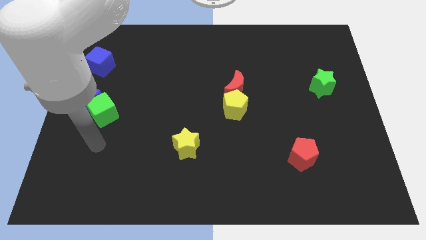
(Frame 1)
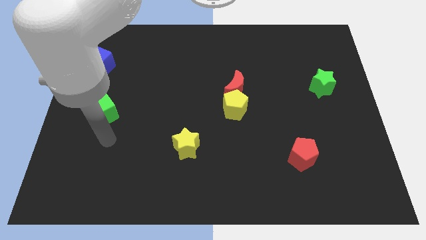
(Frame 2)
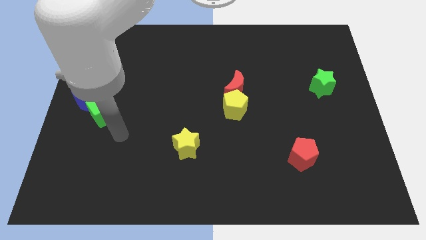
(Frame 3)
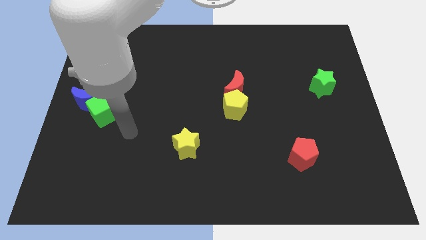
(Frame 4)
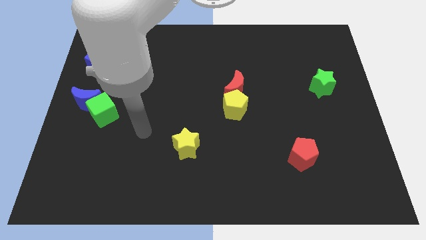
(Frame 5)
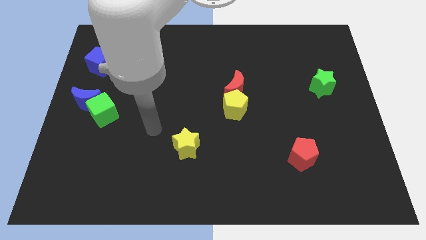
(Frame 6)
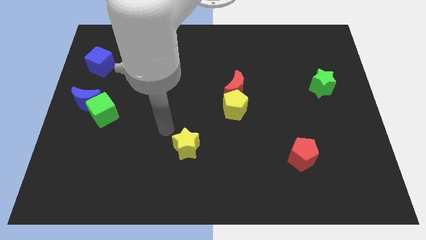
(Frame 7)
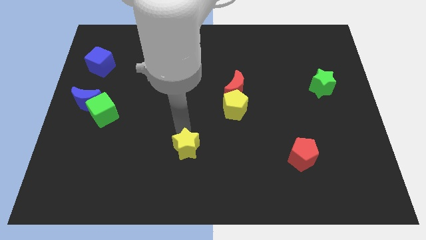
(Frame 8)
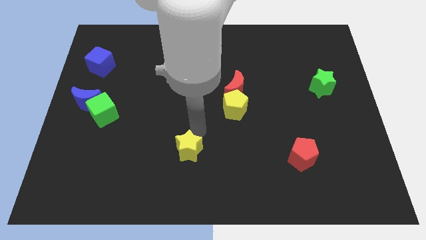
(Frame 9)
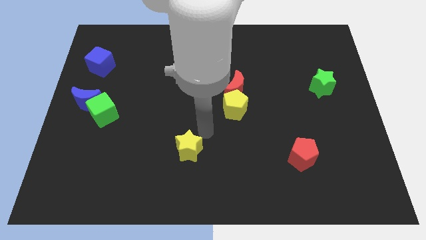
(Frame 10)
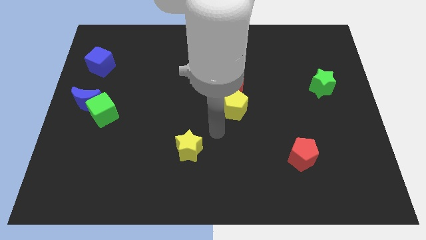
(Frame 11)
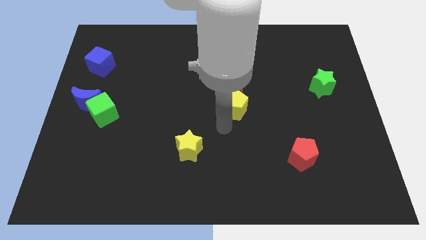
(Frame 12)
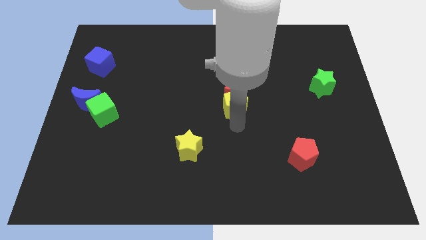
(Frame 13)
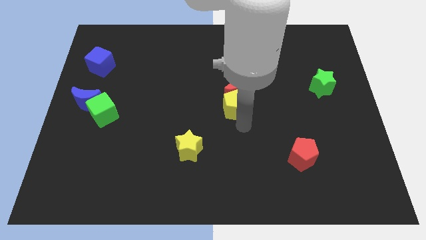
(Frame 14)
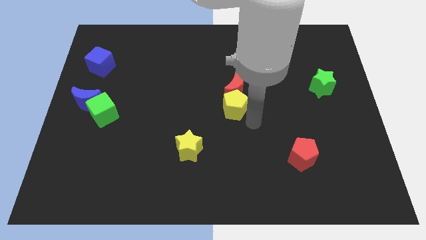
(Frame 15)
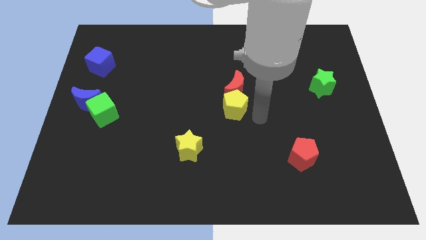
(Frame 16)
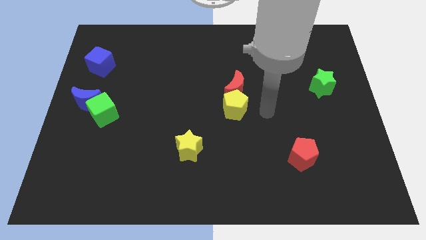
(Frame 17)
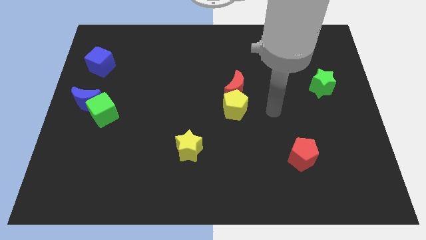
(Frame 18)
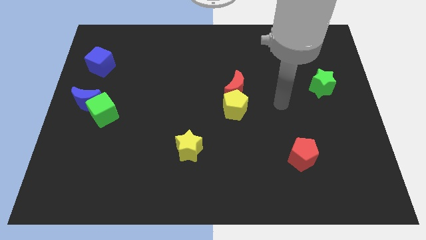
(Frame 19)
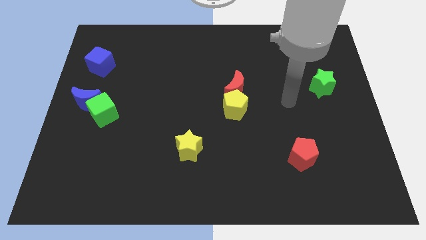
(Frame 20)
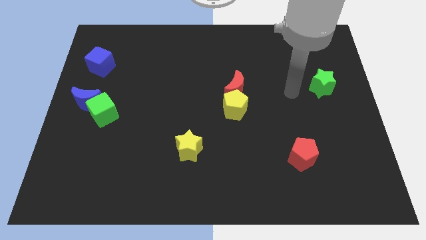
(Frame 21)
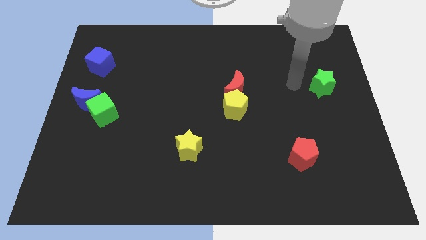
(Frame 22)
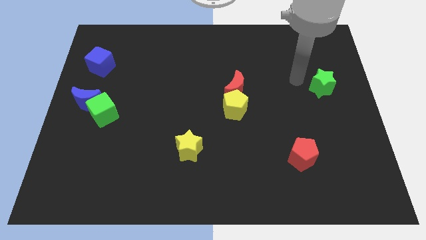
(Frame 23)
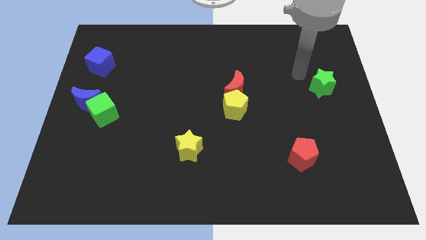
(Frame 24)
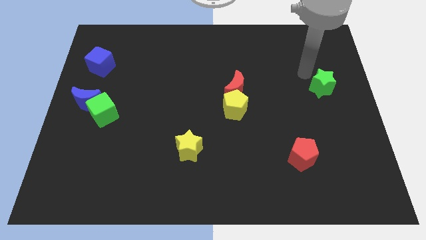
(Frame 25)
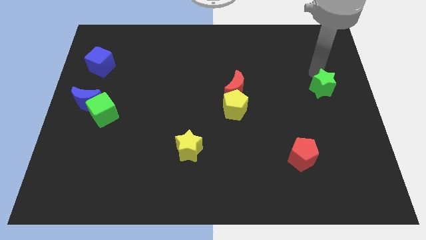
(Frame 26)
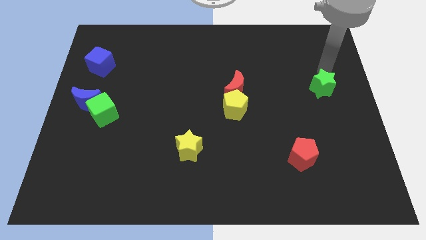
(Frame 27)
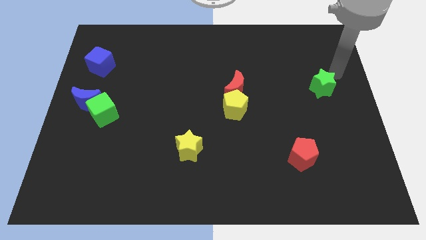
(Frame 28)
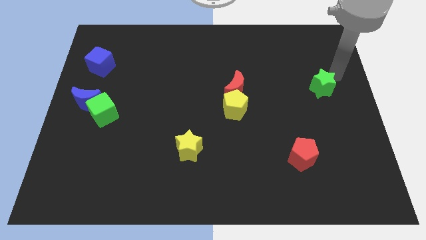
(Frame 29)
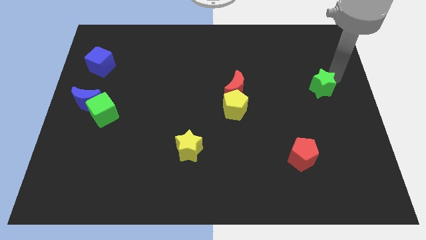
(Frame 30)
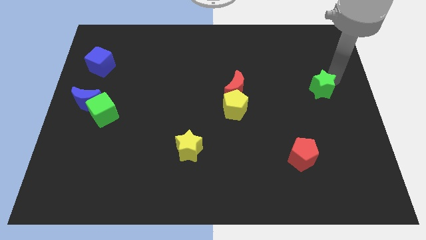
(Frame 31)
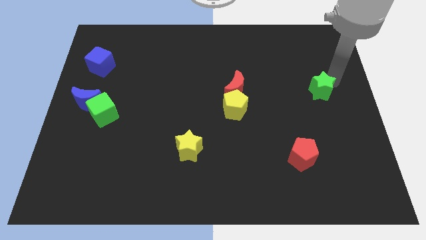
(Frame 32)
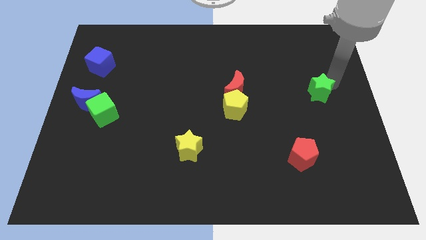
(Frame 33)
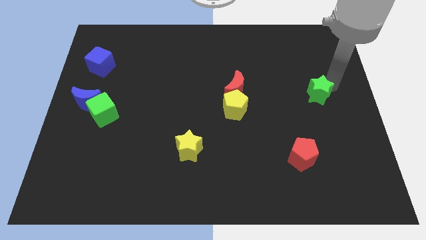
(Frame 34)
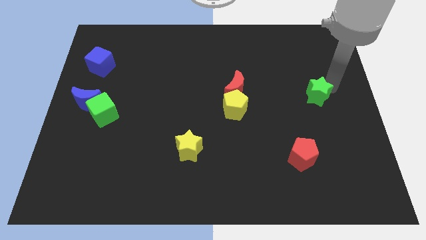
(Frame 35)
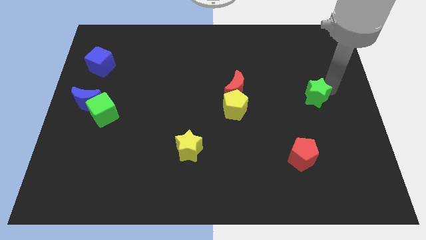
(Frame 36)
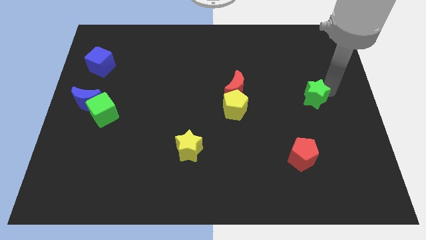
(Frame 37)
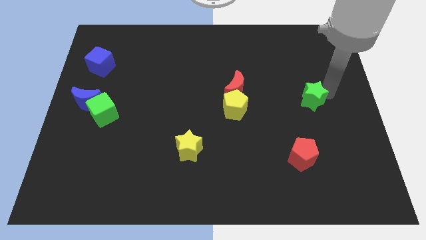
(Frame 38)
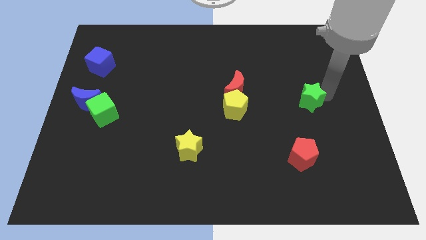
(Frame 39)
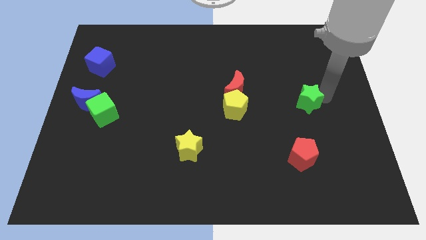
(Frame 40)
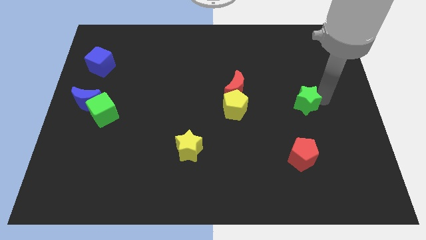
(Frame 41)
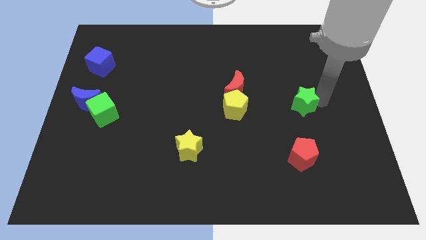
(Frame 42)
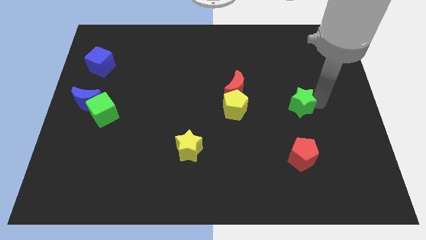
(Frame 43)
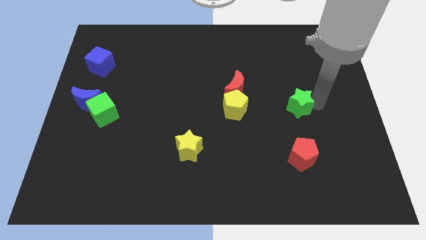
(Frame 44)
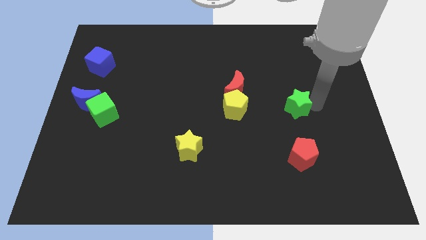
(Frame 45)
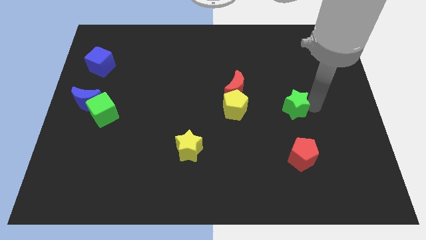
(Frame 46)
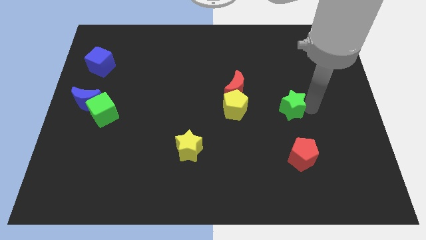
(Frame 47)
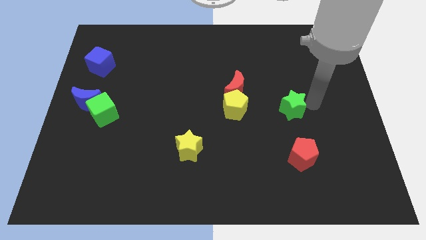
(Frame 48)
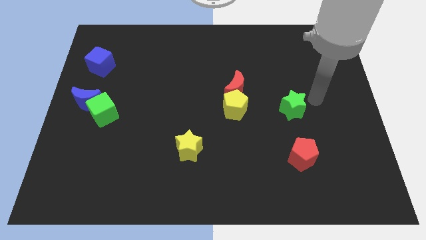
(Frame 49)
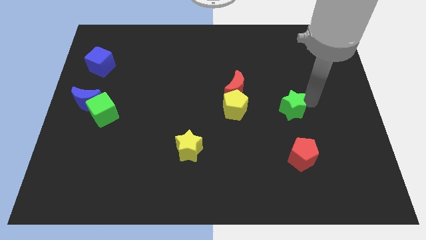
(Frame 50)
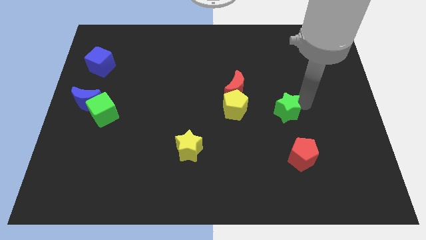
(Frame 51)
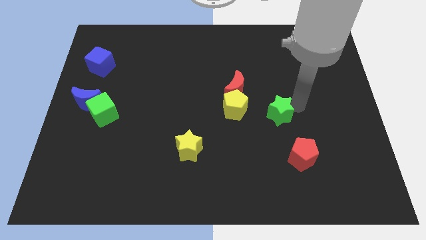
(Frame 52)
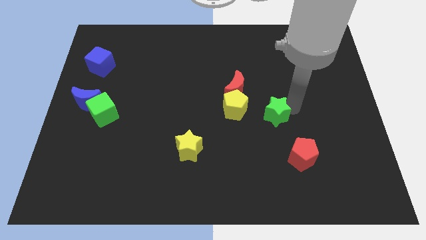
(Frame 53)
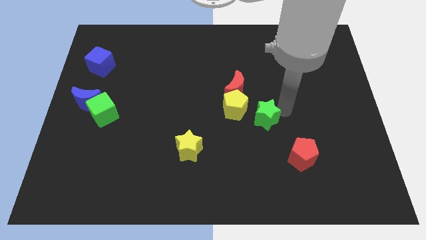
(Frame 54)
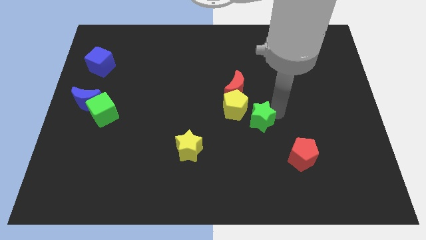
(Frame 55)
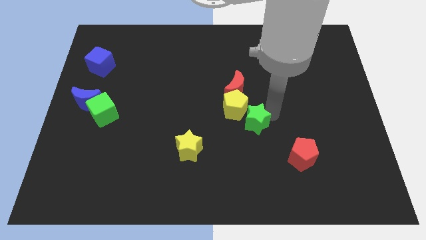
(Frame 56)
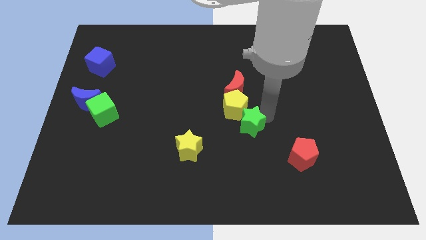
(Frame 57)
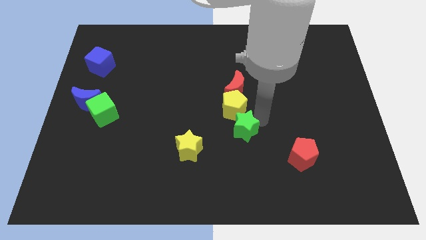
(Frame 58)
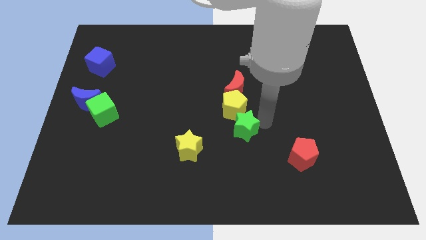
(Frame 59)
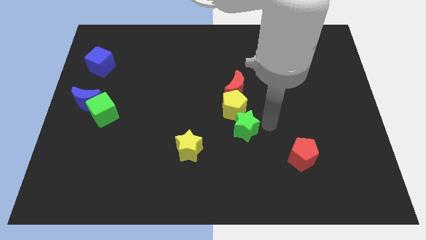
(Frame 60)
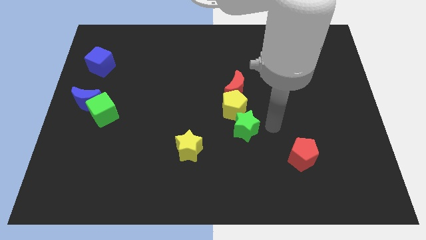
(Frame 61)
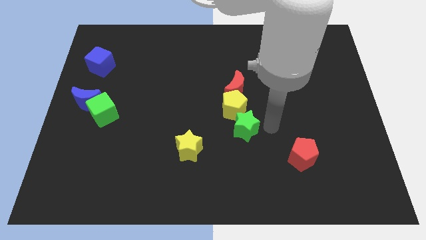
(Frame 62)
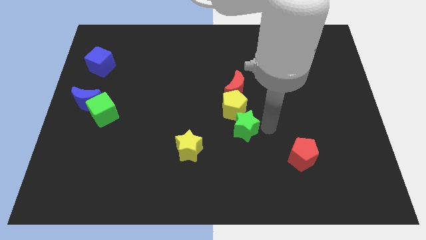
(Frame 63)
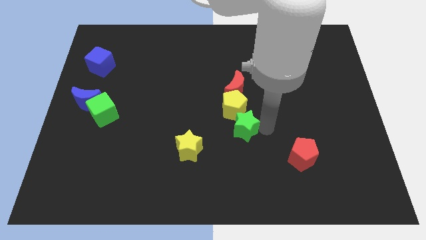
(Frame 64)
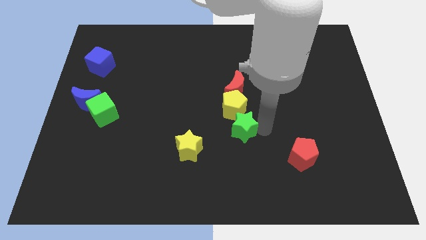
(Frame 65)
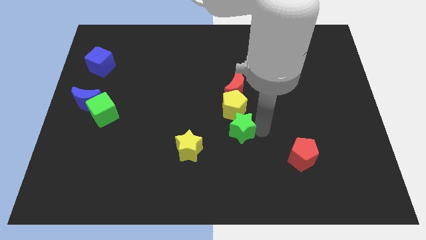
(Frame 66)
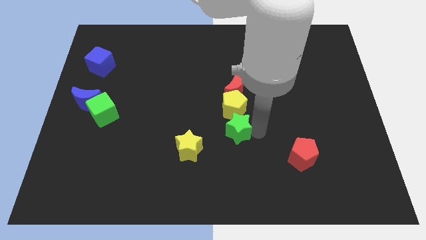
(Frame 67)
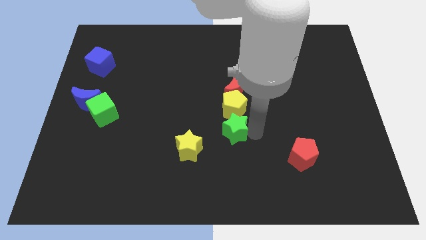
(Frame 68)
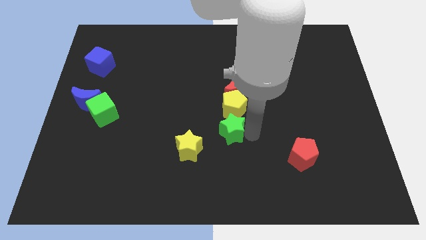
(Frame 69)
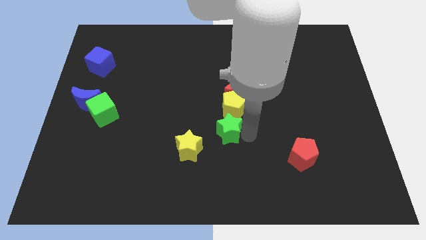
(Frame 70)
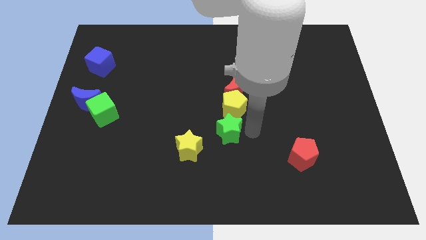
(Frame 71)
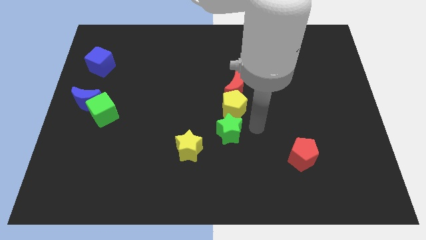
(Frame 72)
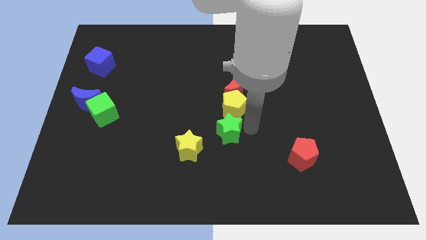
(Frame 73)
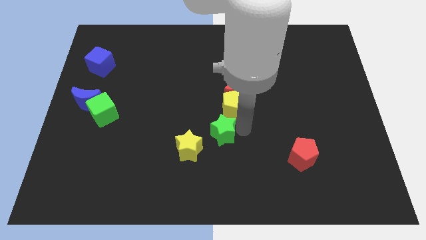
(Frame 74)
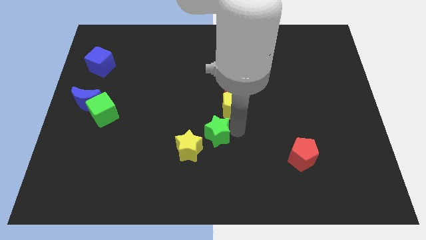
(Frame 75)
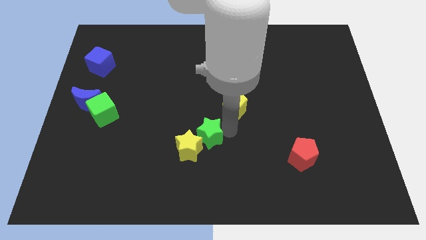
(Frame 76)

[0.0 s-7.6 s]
put the green star towards the yellow star
